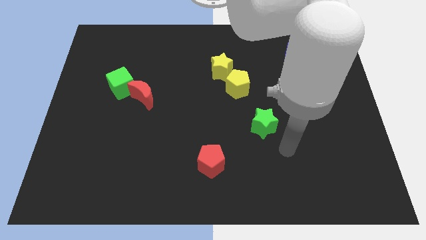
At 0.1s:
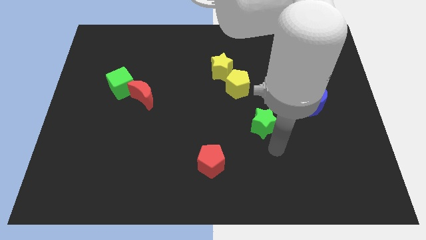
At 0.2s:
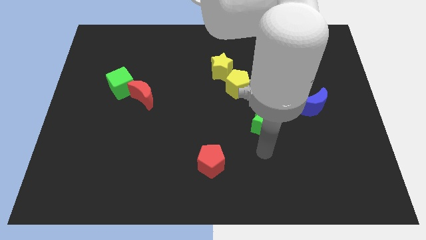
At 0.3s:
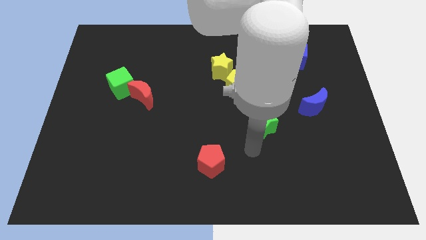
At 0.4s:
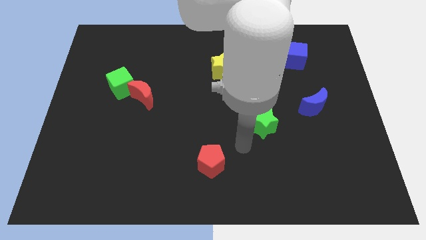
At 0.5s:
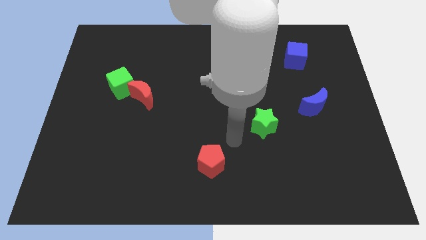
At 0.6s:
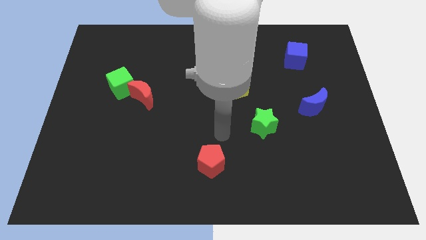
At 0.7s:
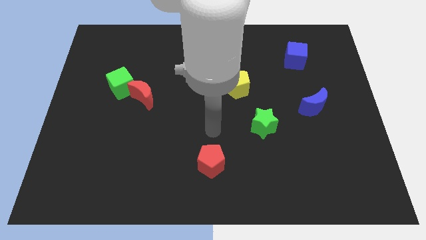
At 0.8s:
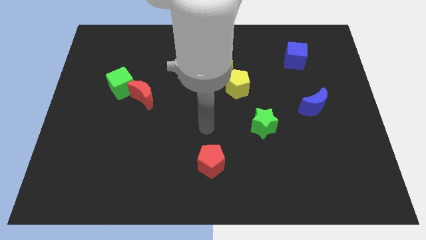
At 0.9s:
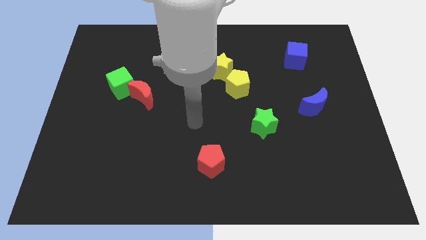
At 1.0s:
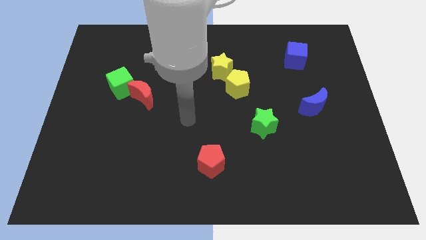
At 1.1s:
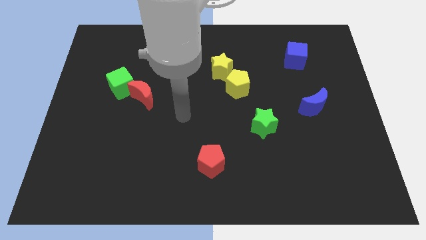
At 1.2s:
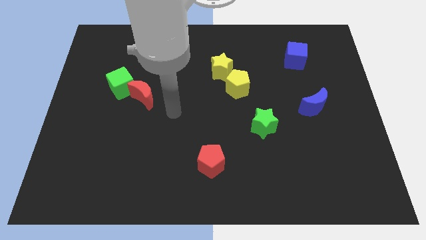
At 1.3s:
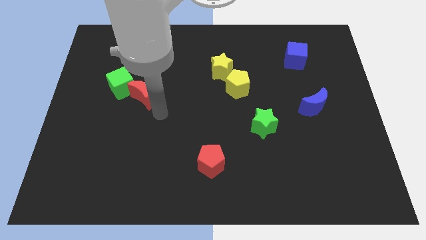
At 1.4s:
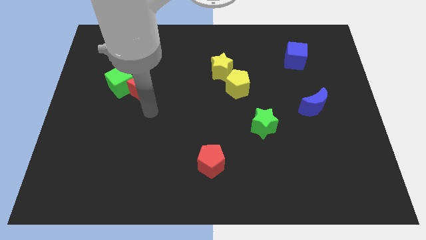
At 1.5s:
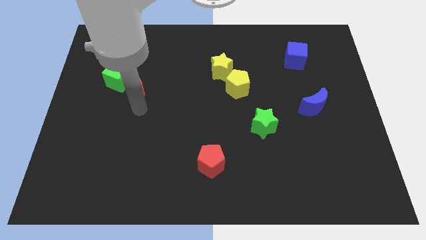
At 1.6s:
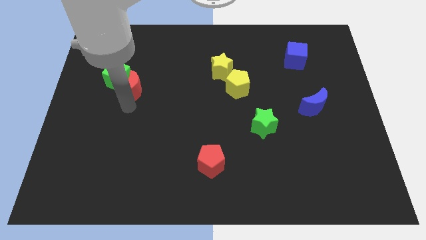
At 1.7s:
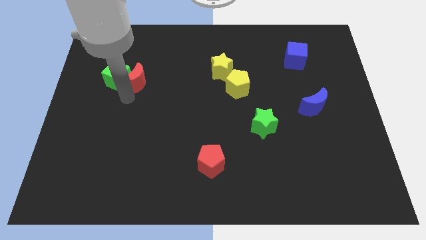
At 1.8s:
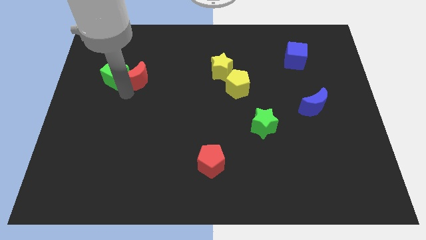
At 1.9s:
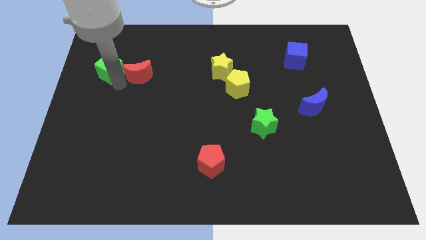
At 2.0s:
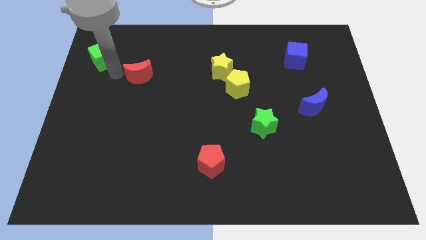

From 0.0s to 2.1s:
pull the red moon apart from the green cube

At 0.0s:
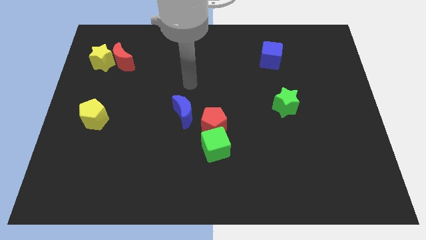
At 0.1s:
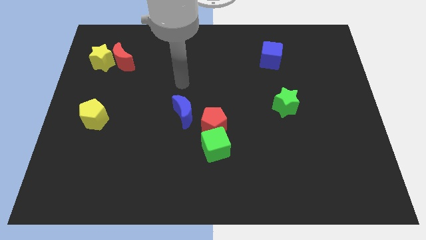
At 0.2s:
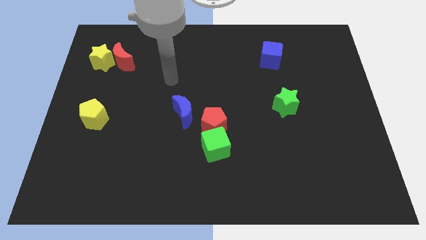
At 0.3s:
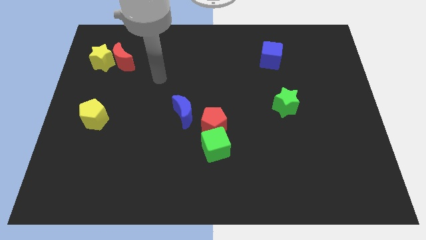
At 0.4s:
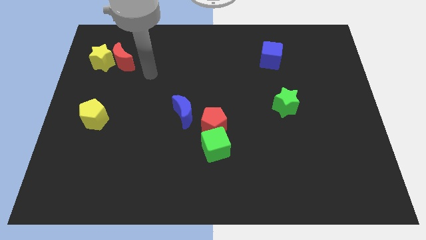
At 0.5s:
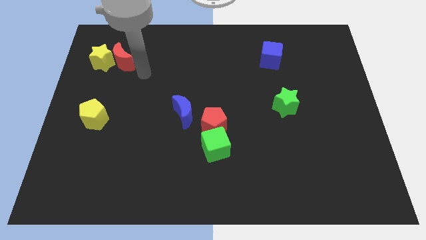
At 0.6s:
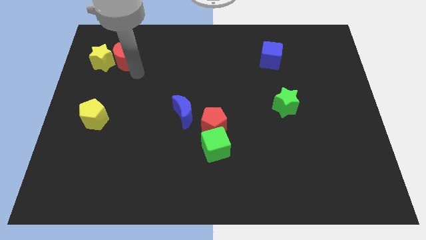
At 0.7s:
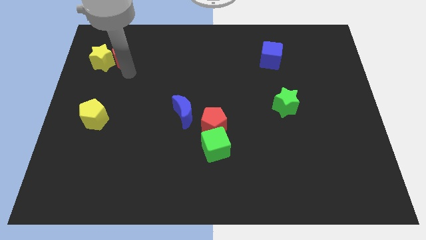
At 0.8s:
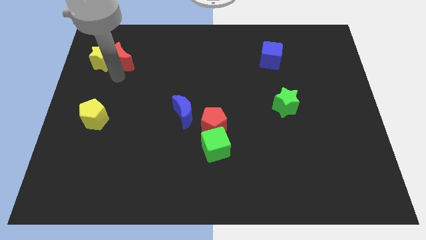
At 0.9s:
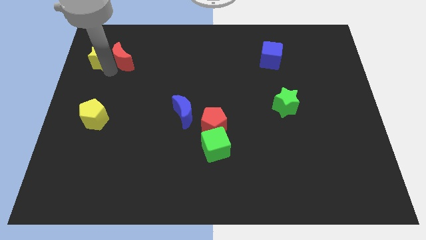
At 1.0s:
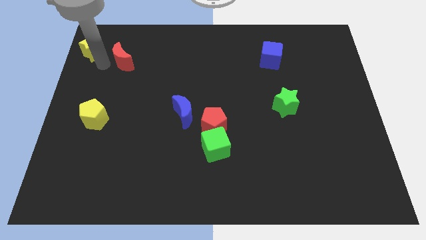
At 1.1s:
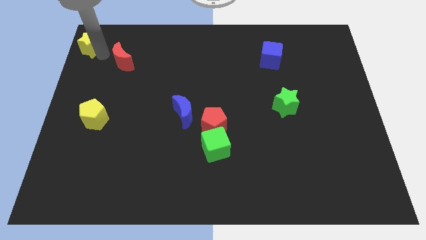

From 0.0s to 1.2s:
separate the red moon from the yellow star

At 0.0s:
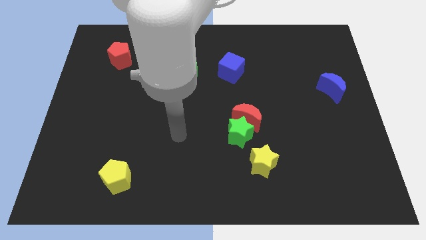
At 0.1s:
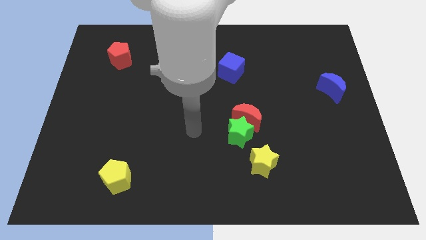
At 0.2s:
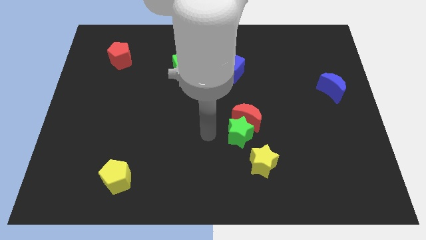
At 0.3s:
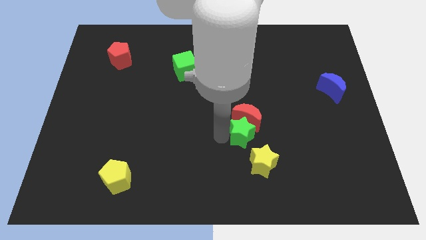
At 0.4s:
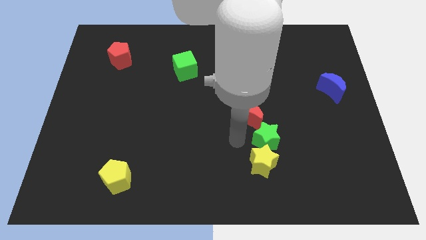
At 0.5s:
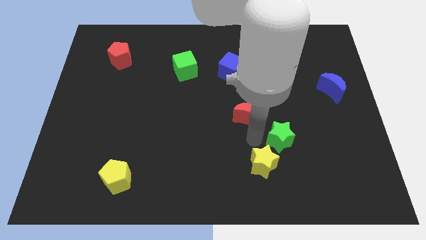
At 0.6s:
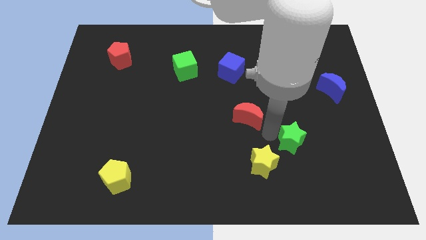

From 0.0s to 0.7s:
move the red moon away from the green star

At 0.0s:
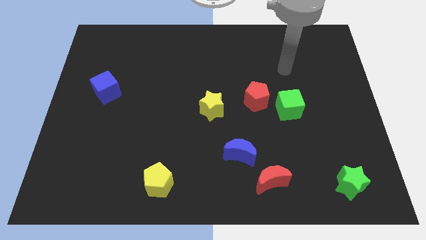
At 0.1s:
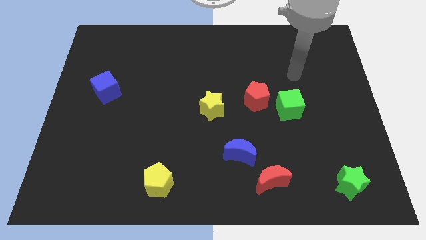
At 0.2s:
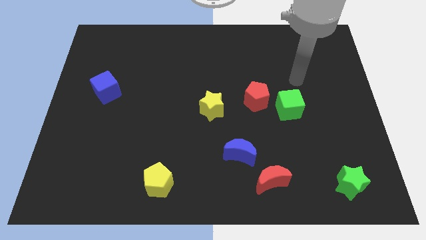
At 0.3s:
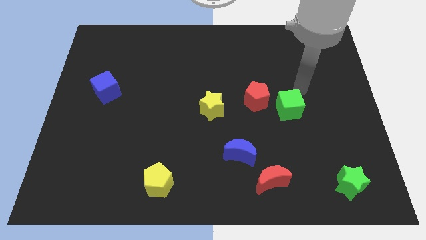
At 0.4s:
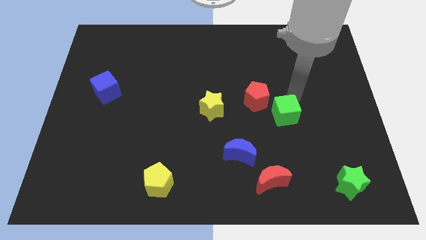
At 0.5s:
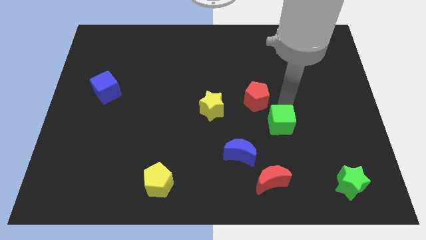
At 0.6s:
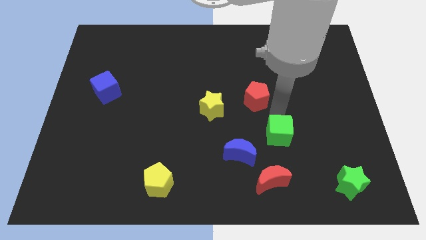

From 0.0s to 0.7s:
separate the red pentagon from the green cube

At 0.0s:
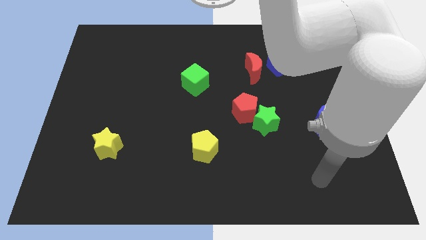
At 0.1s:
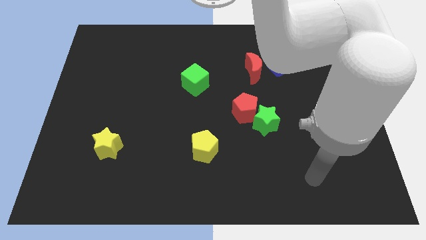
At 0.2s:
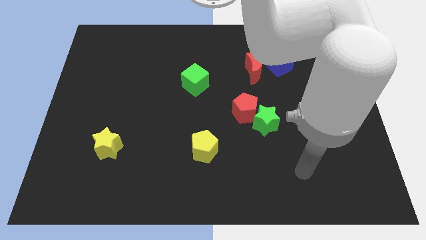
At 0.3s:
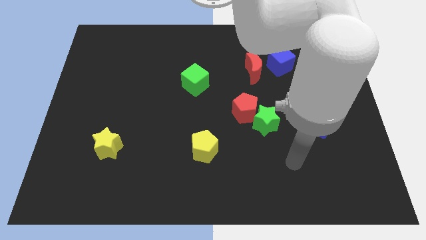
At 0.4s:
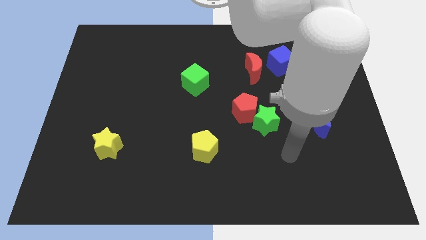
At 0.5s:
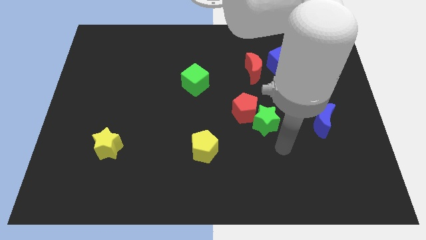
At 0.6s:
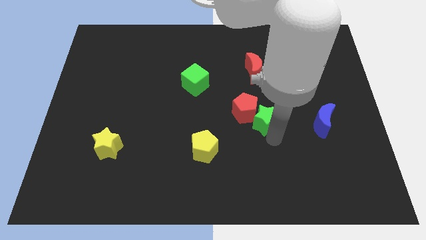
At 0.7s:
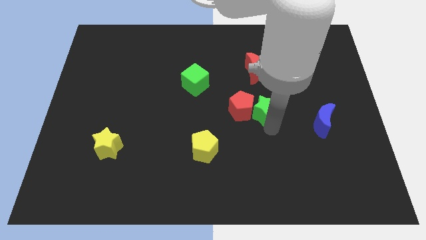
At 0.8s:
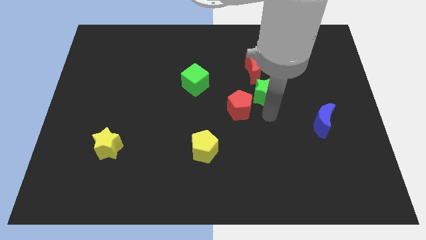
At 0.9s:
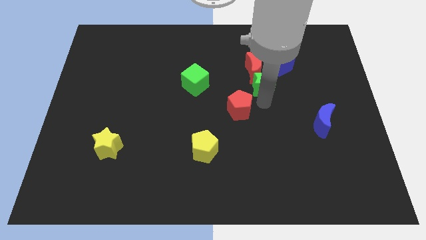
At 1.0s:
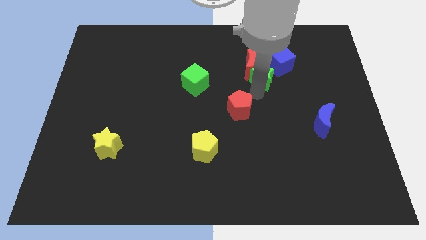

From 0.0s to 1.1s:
pull the red pentagon apart from the green star

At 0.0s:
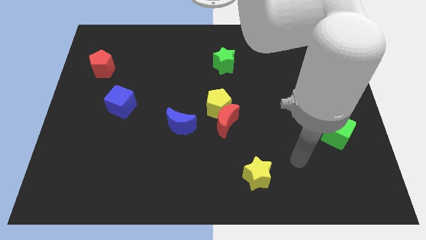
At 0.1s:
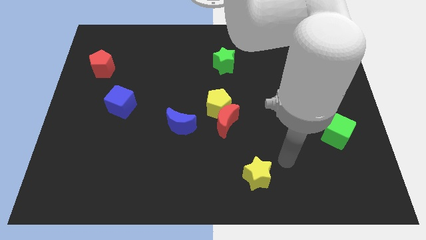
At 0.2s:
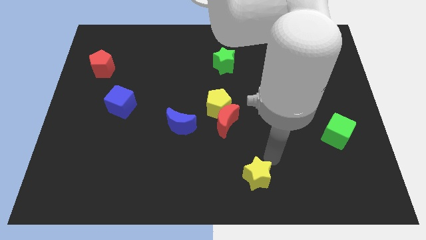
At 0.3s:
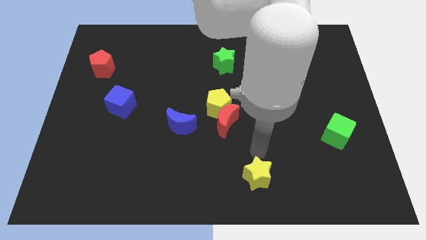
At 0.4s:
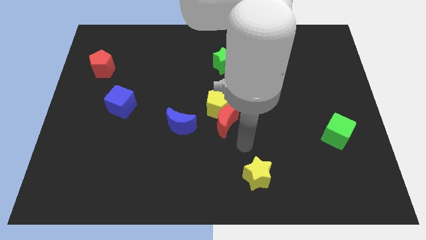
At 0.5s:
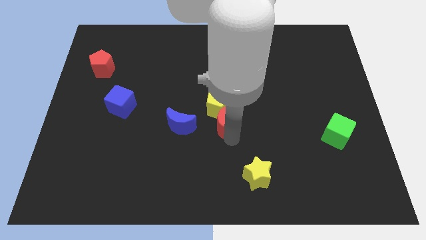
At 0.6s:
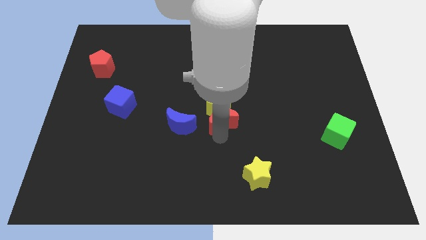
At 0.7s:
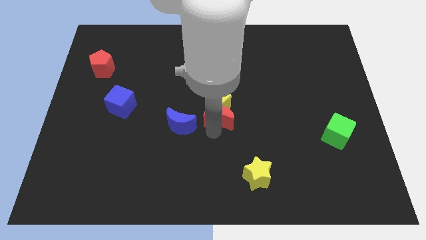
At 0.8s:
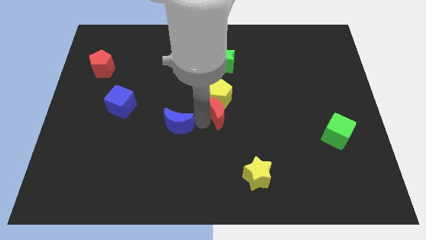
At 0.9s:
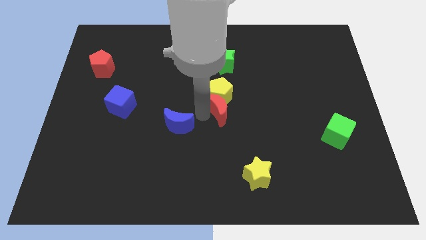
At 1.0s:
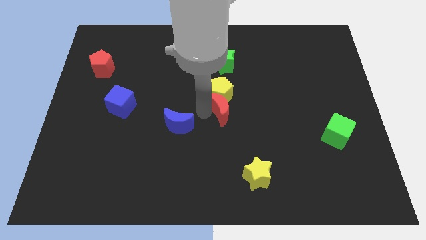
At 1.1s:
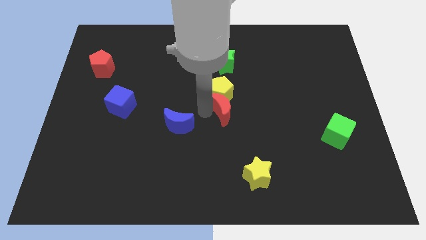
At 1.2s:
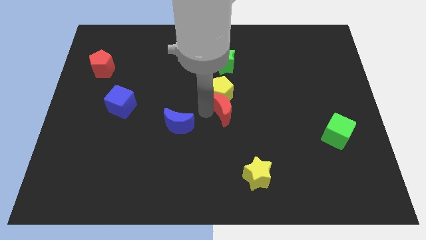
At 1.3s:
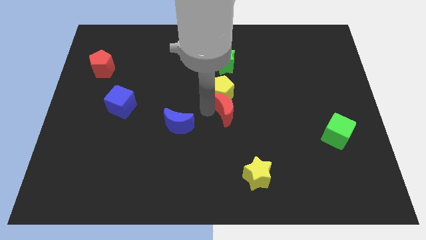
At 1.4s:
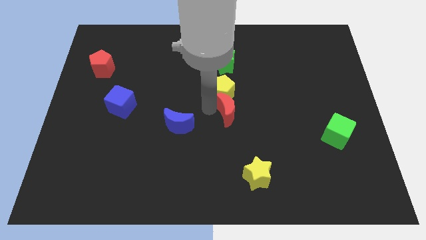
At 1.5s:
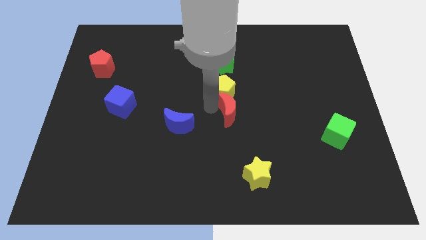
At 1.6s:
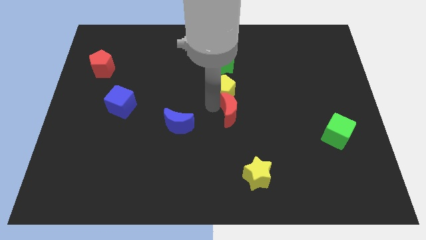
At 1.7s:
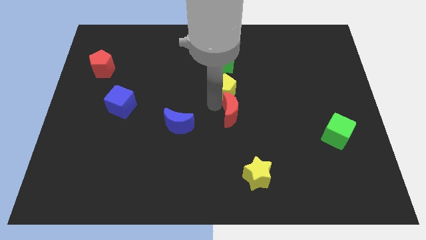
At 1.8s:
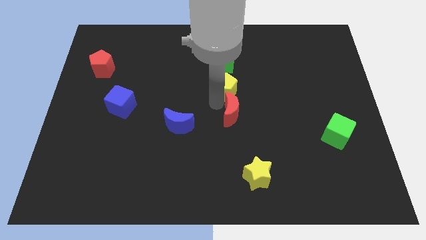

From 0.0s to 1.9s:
move the yellow pentagon away from the red moon and blue moon

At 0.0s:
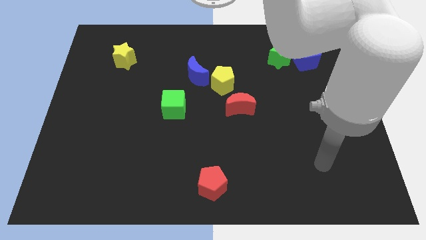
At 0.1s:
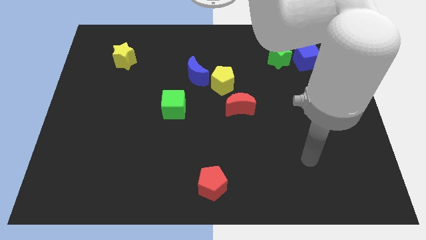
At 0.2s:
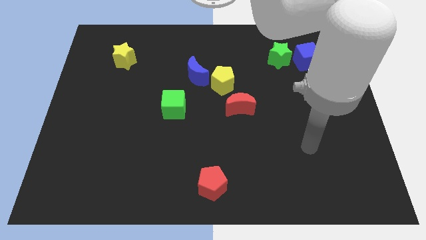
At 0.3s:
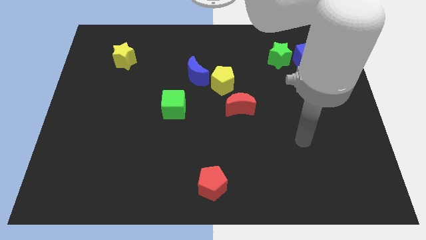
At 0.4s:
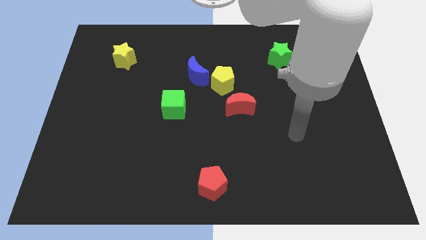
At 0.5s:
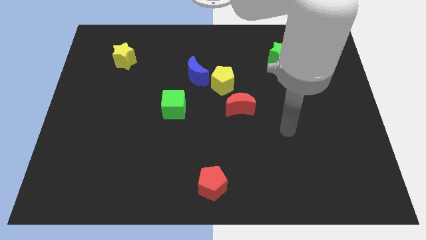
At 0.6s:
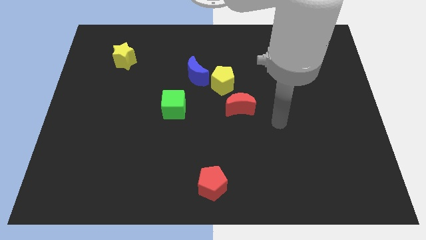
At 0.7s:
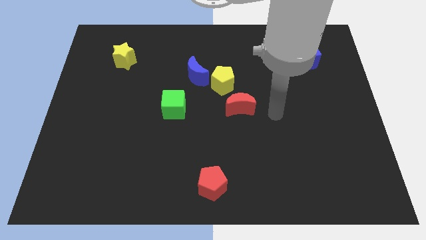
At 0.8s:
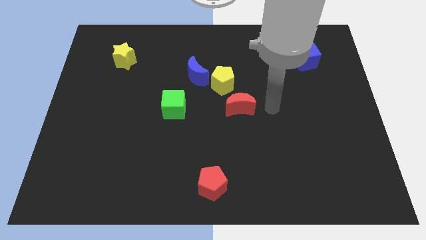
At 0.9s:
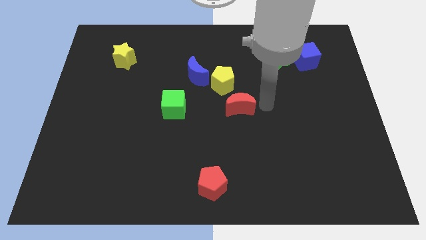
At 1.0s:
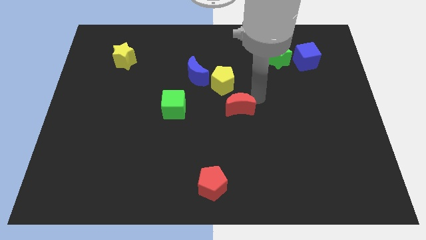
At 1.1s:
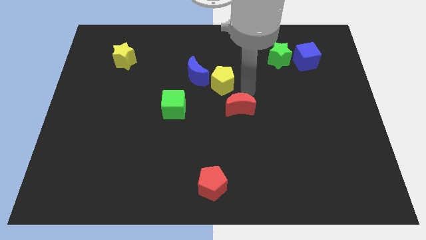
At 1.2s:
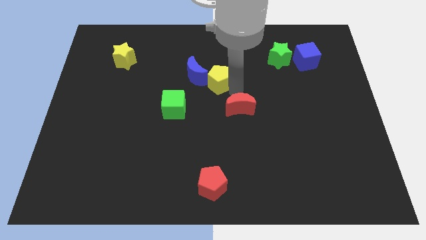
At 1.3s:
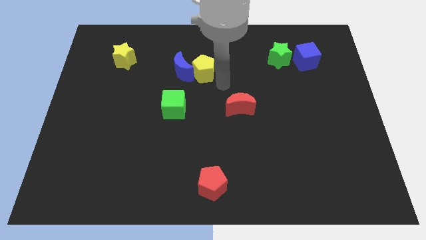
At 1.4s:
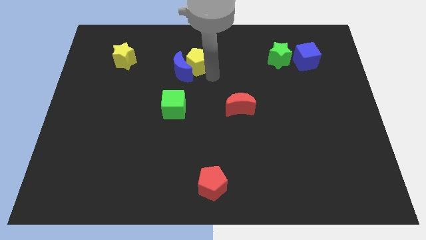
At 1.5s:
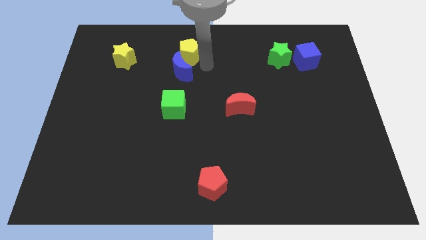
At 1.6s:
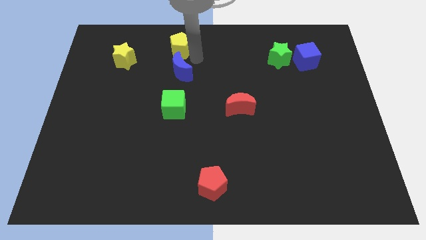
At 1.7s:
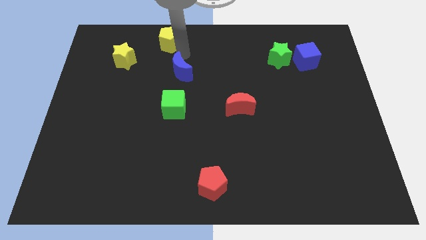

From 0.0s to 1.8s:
move the blue moon away from the yellow pentagon
